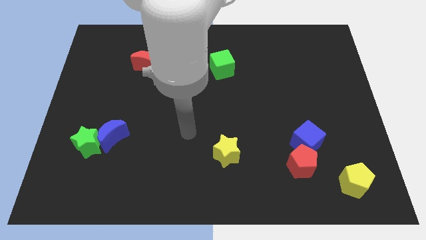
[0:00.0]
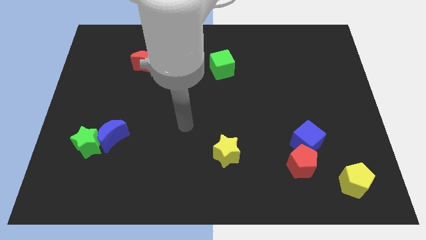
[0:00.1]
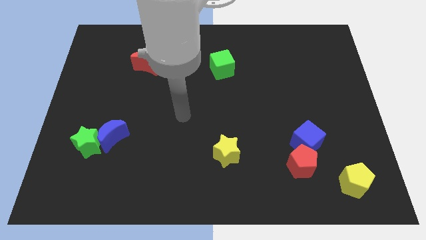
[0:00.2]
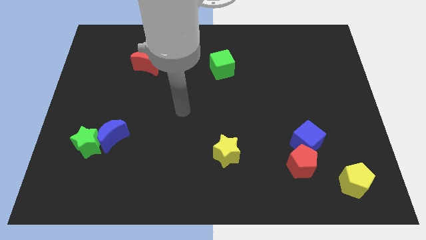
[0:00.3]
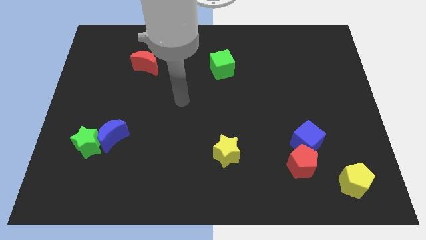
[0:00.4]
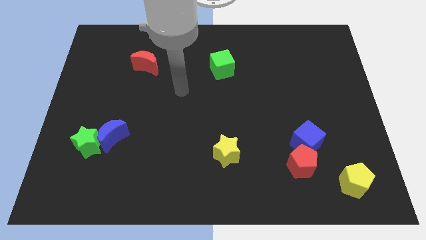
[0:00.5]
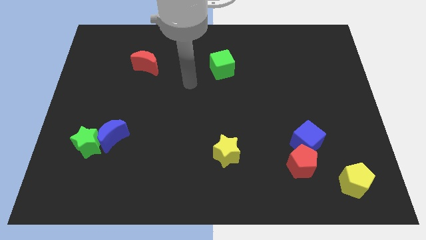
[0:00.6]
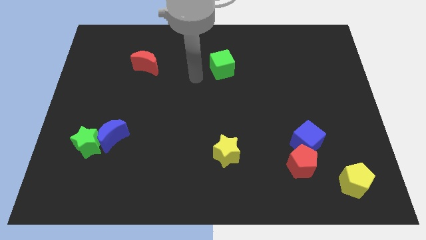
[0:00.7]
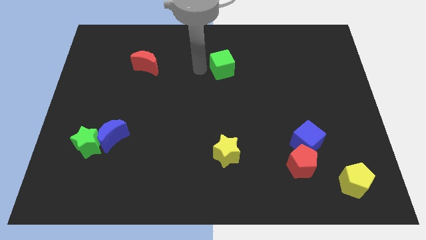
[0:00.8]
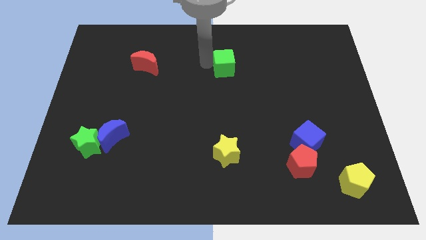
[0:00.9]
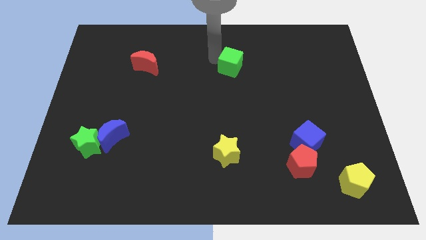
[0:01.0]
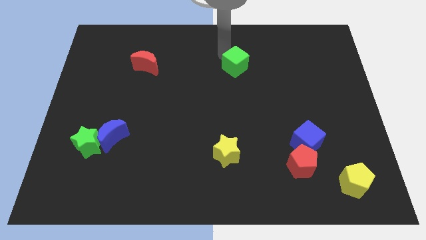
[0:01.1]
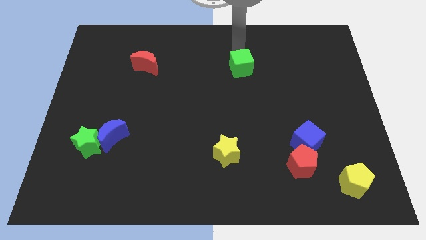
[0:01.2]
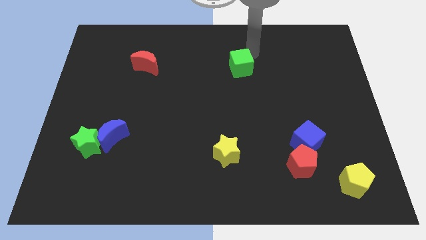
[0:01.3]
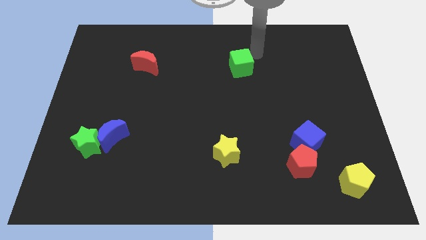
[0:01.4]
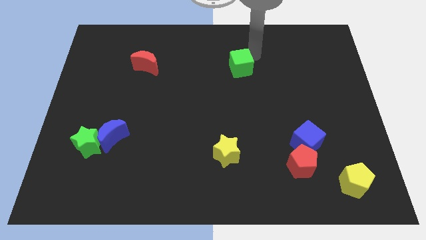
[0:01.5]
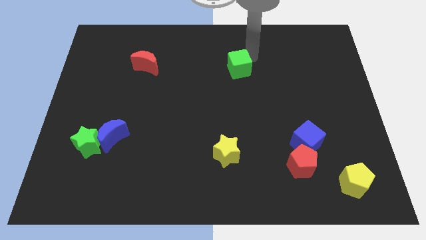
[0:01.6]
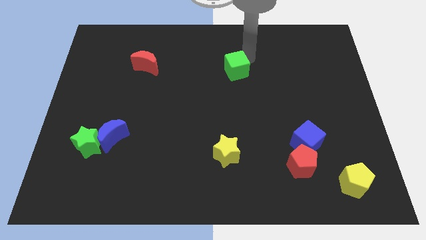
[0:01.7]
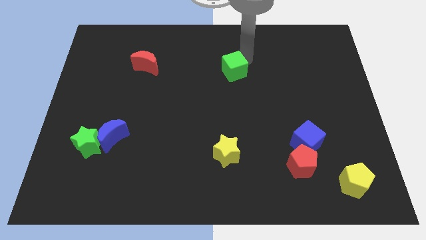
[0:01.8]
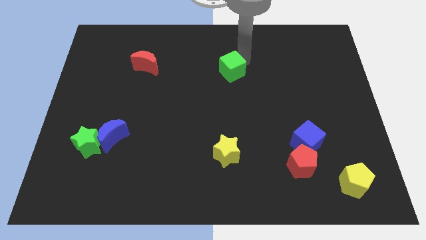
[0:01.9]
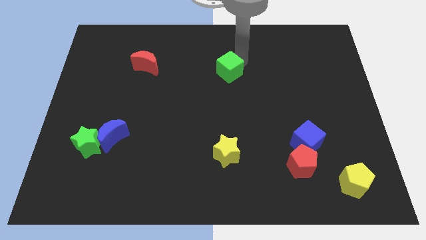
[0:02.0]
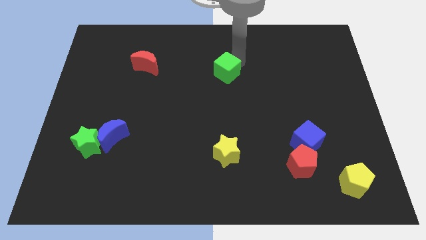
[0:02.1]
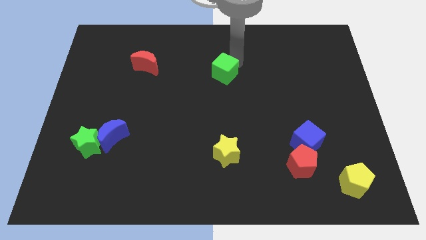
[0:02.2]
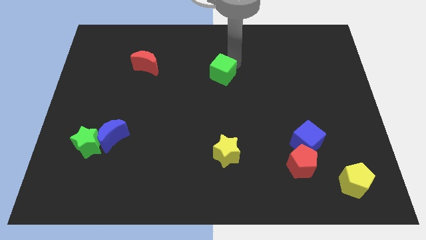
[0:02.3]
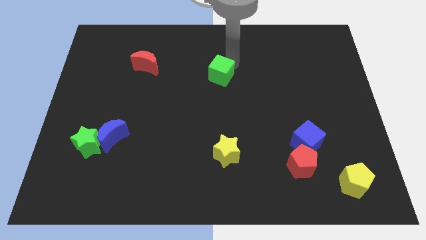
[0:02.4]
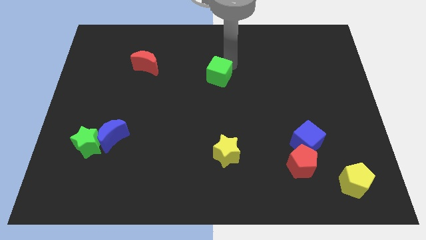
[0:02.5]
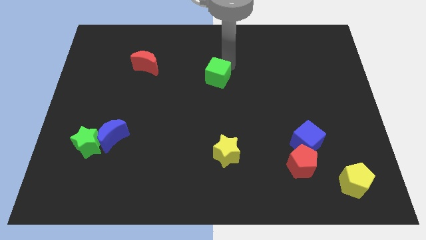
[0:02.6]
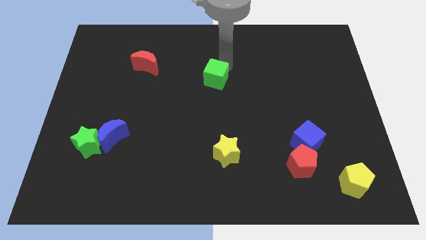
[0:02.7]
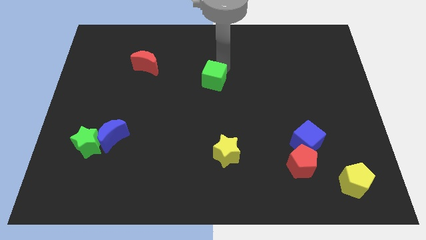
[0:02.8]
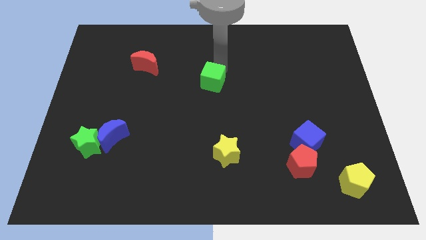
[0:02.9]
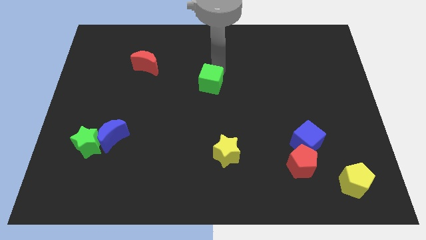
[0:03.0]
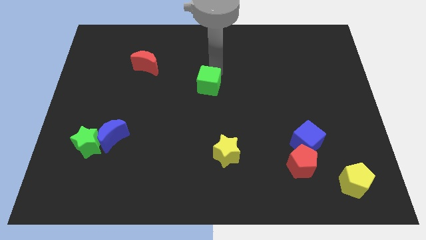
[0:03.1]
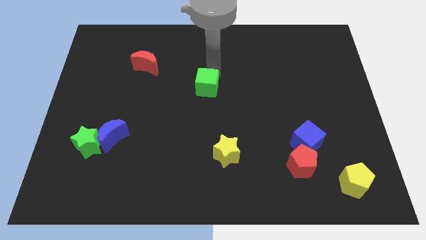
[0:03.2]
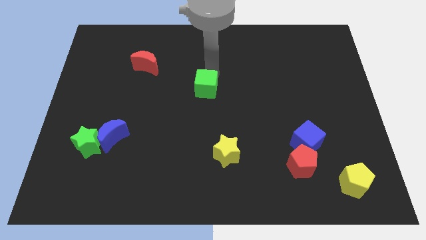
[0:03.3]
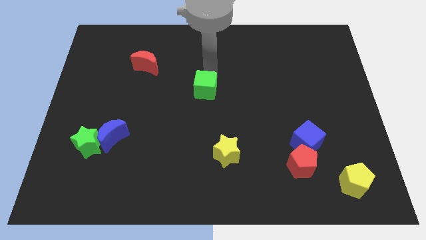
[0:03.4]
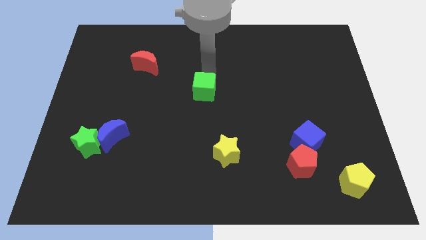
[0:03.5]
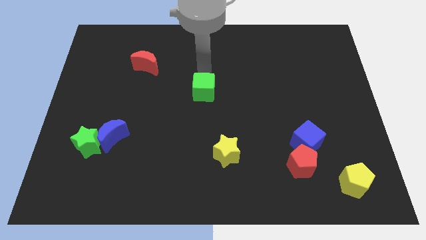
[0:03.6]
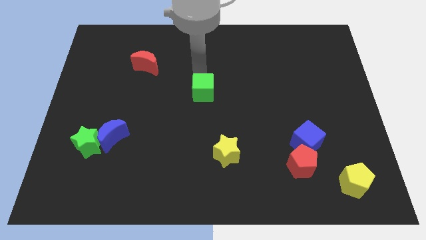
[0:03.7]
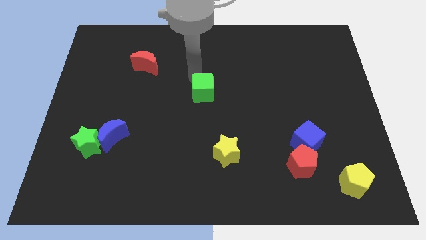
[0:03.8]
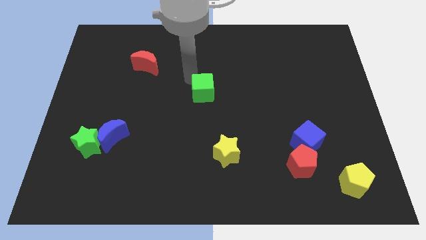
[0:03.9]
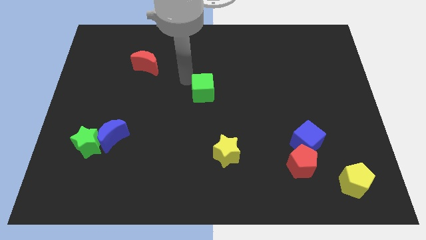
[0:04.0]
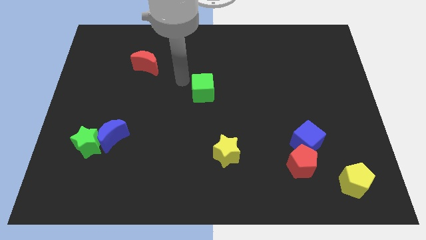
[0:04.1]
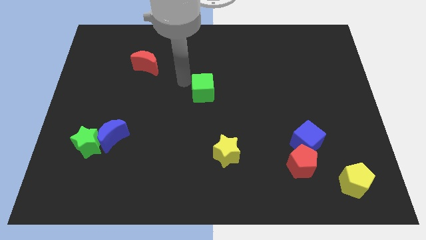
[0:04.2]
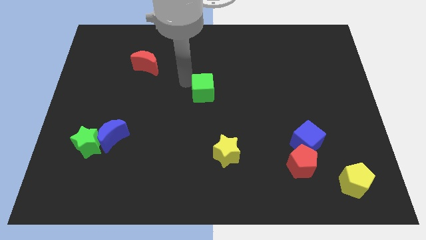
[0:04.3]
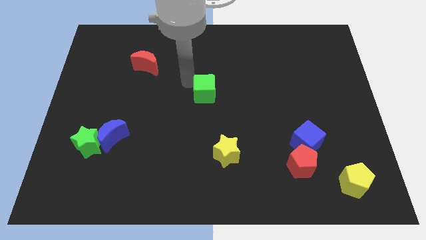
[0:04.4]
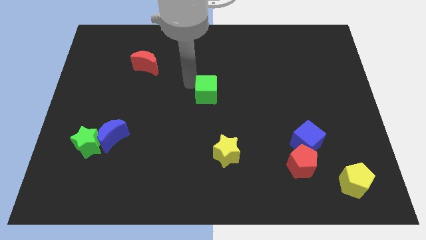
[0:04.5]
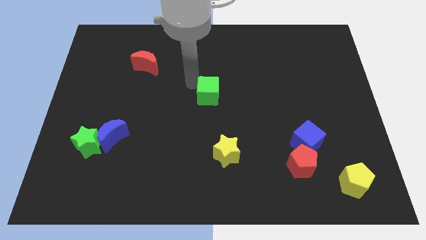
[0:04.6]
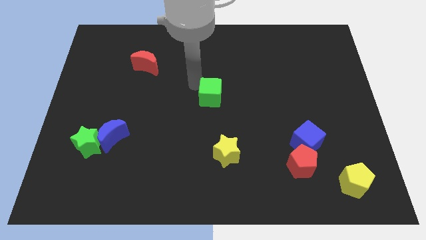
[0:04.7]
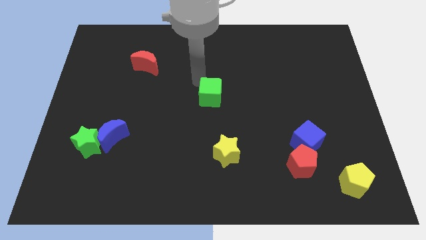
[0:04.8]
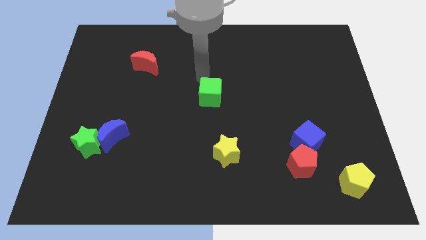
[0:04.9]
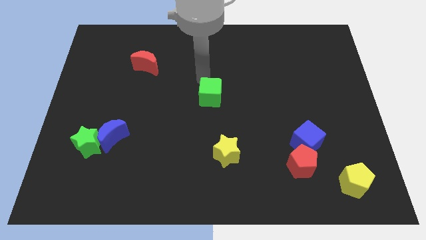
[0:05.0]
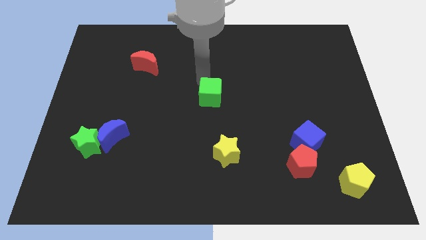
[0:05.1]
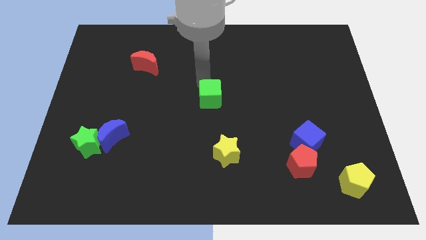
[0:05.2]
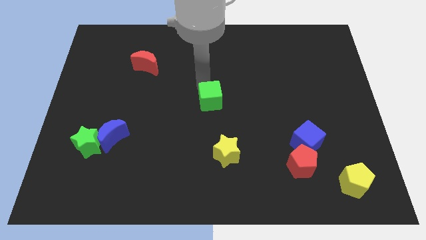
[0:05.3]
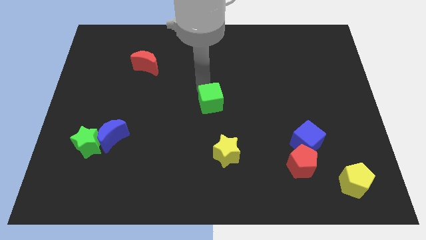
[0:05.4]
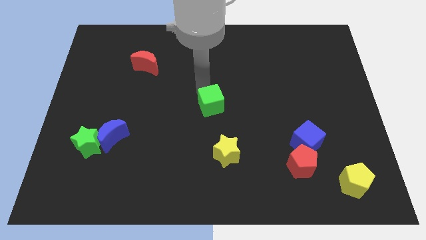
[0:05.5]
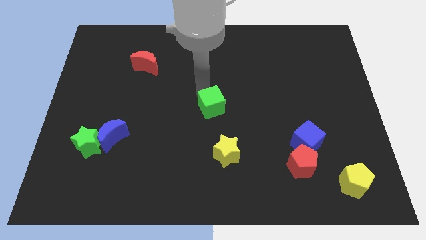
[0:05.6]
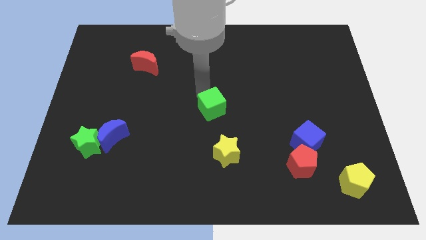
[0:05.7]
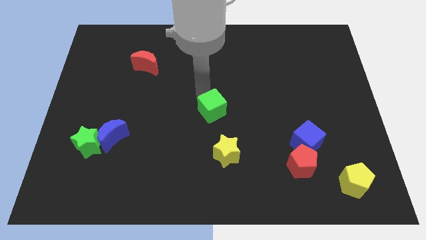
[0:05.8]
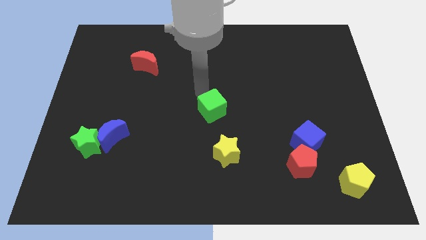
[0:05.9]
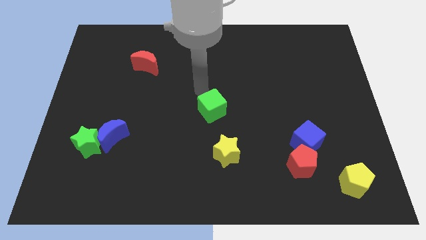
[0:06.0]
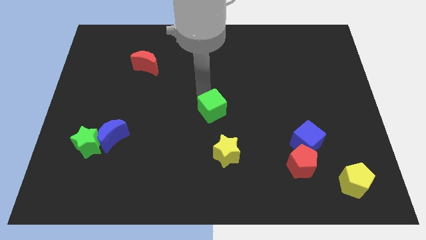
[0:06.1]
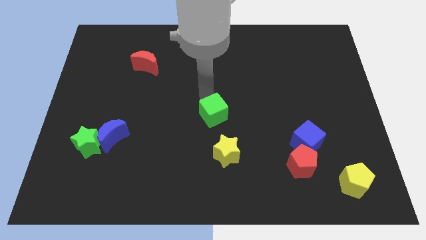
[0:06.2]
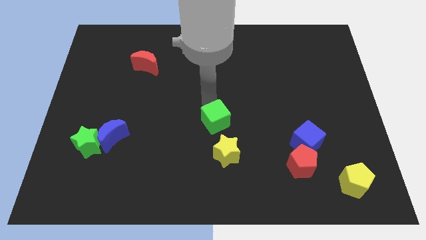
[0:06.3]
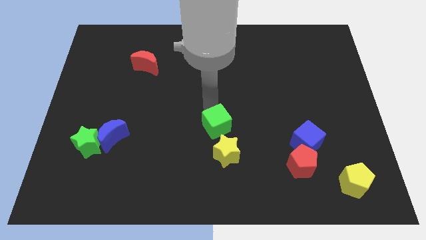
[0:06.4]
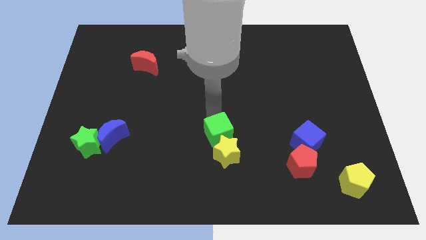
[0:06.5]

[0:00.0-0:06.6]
put the green cube towards the yellow star
